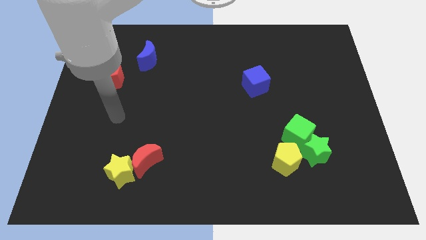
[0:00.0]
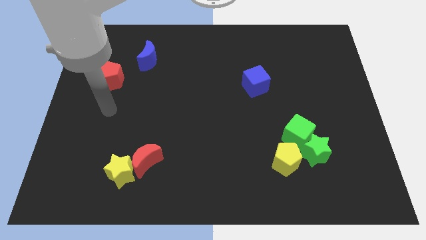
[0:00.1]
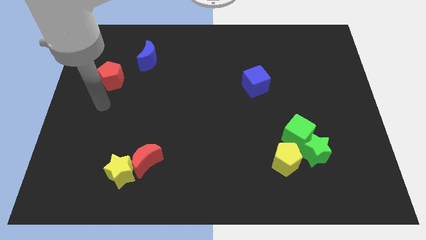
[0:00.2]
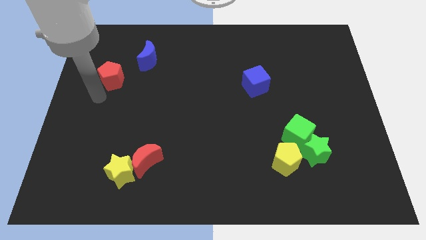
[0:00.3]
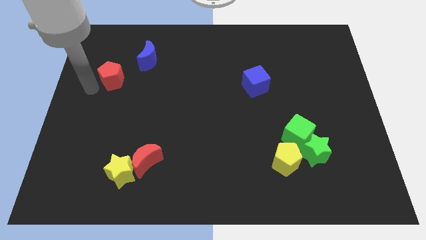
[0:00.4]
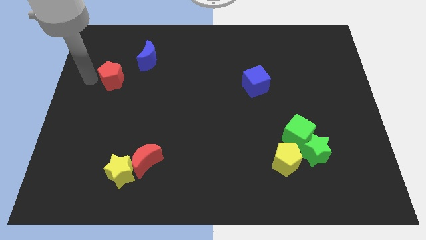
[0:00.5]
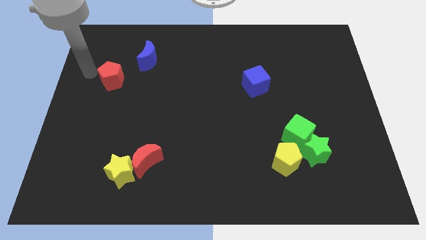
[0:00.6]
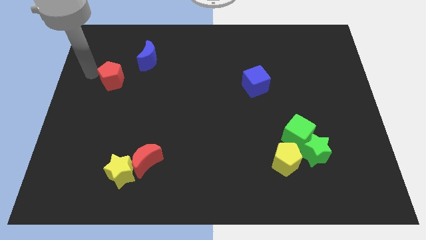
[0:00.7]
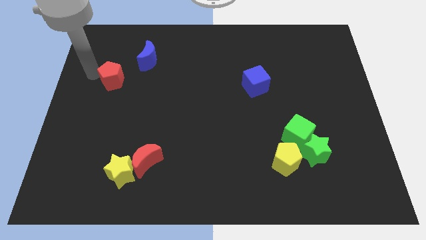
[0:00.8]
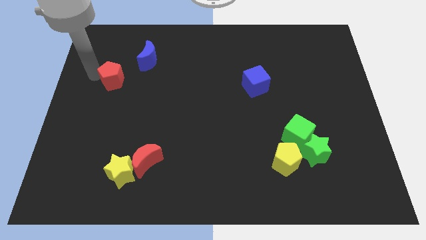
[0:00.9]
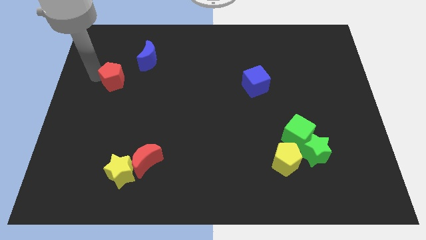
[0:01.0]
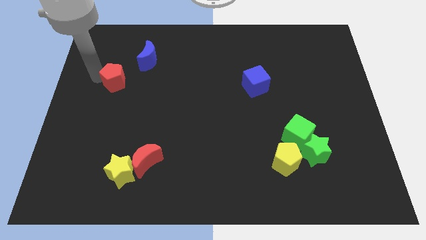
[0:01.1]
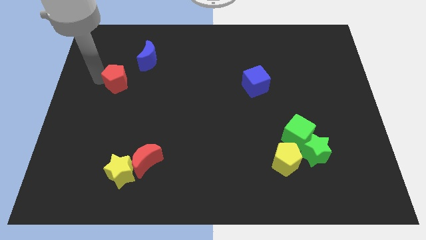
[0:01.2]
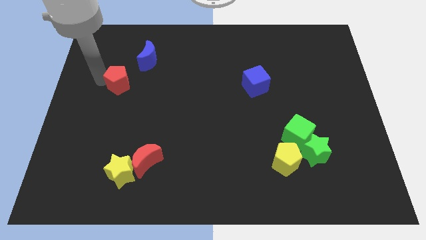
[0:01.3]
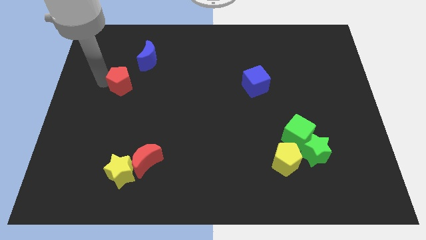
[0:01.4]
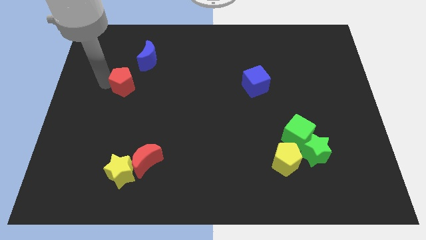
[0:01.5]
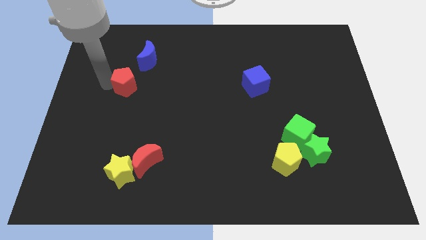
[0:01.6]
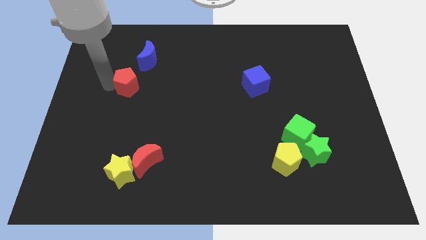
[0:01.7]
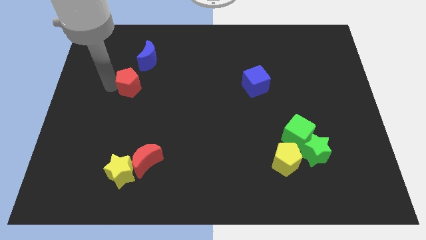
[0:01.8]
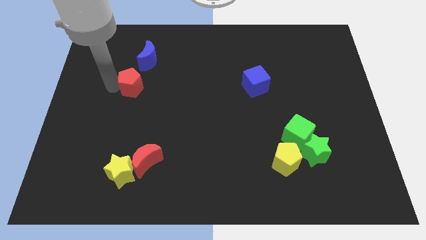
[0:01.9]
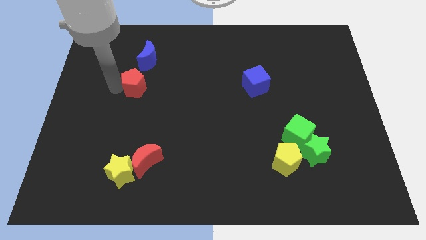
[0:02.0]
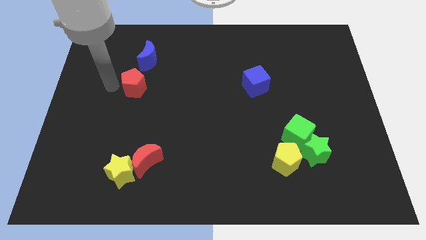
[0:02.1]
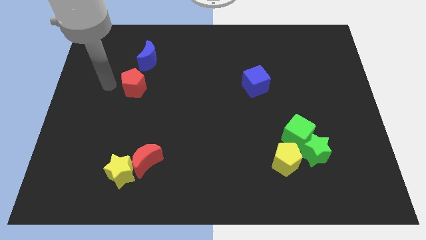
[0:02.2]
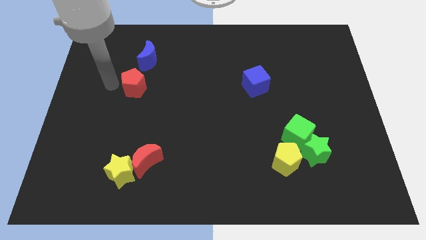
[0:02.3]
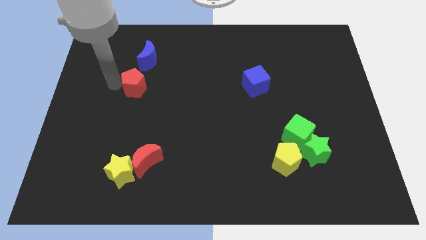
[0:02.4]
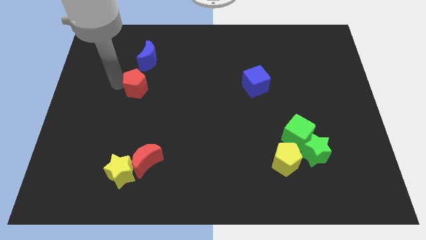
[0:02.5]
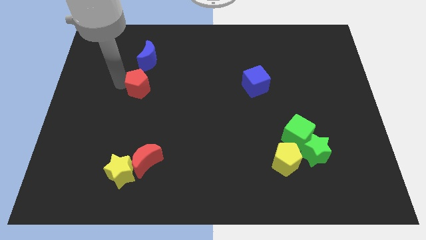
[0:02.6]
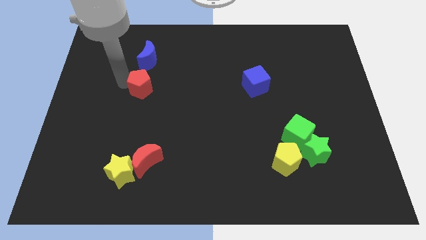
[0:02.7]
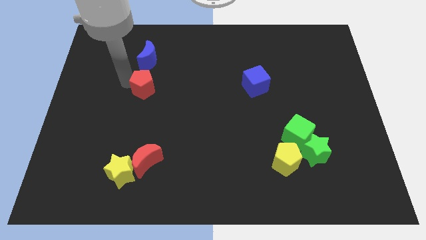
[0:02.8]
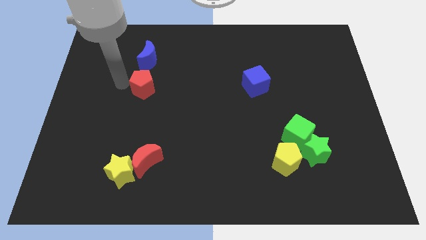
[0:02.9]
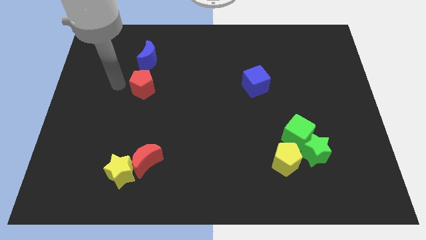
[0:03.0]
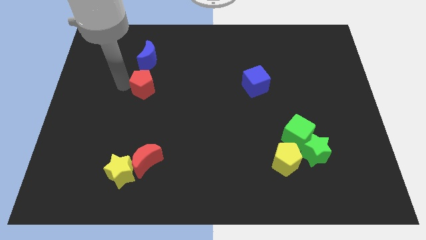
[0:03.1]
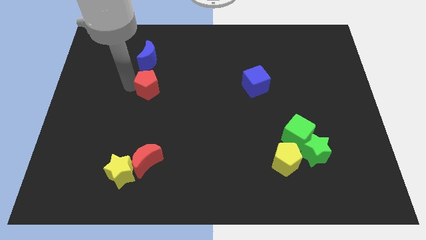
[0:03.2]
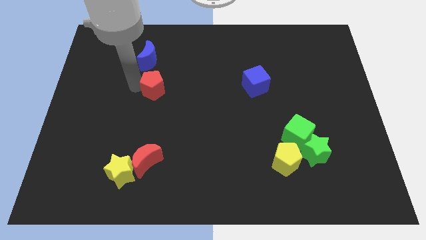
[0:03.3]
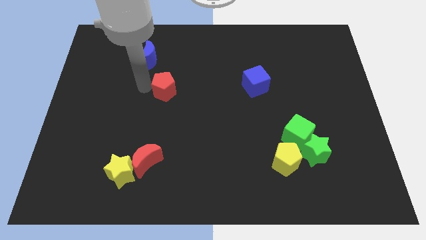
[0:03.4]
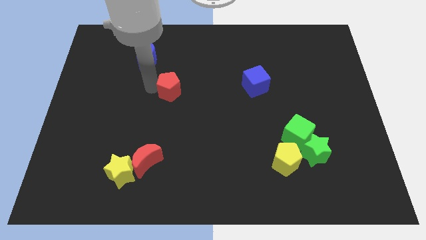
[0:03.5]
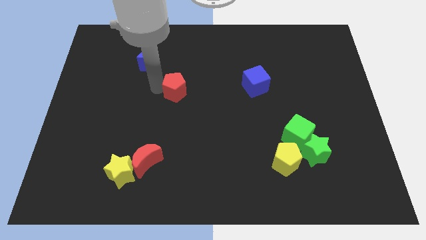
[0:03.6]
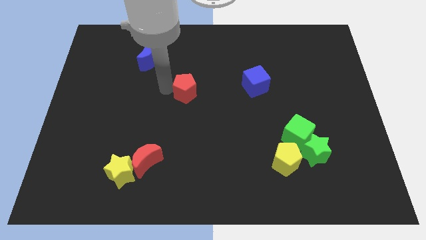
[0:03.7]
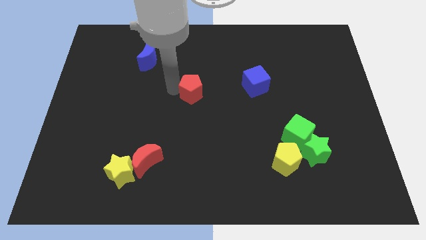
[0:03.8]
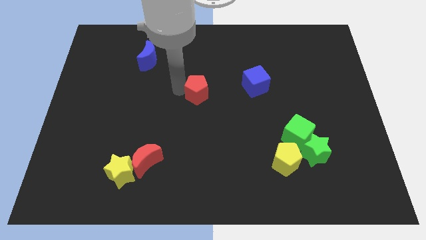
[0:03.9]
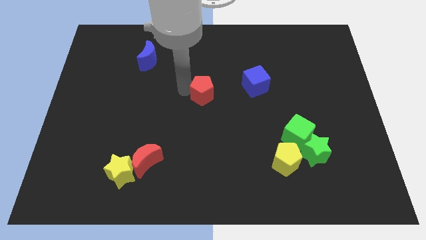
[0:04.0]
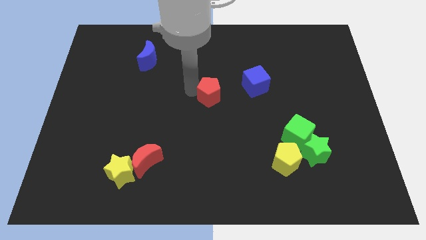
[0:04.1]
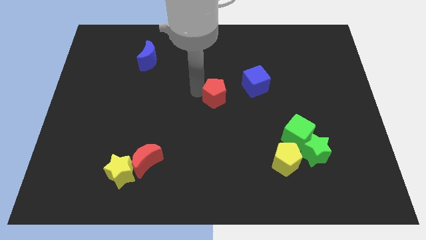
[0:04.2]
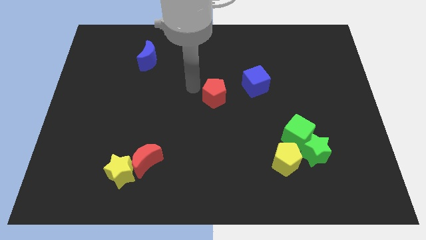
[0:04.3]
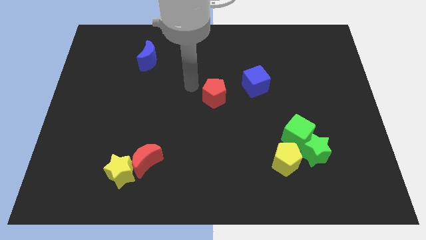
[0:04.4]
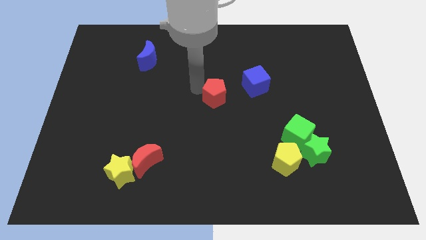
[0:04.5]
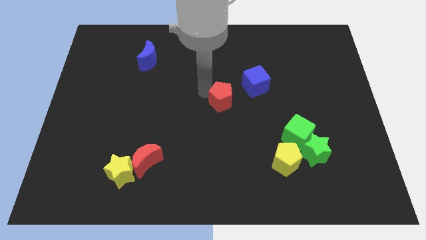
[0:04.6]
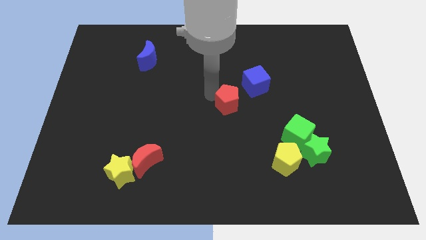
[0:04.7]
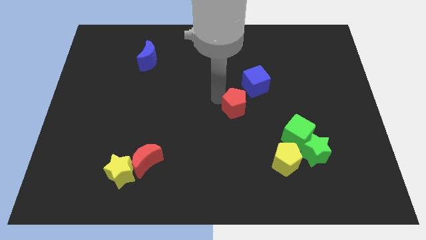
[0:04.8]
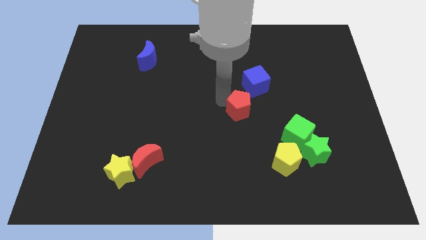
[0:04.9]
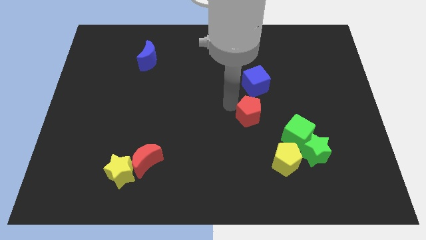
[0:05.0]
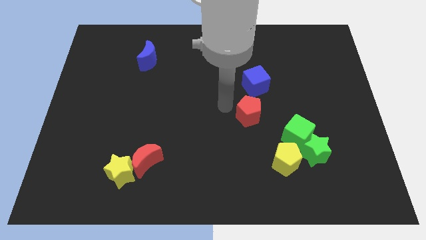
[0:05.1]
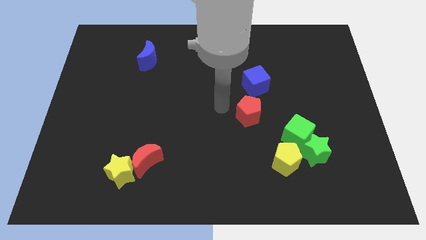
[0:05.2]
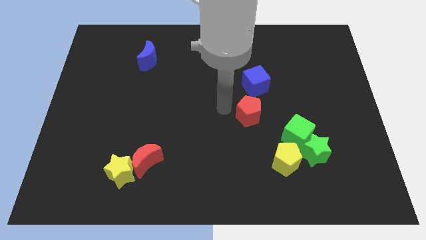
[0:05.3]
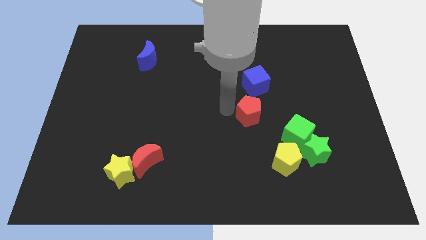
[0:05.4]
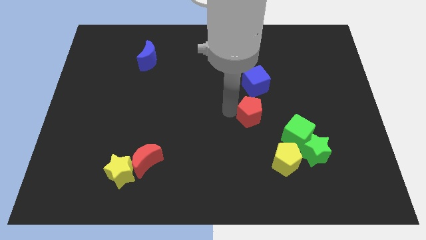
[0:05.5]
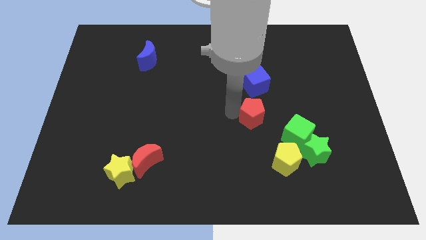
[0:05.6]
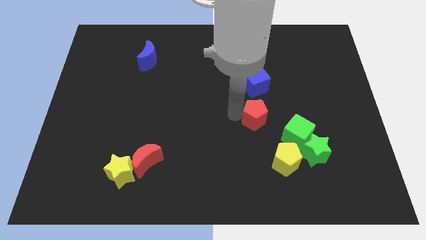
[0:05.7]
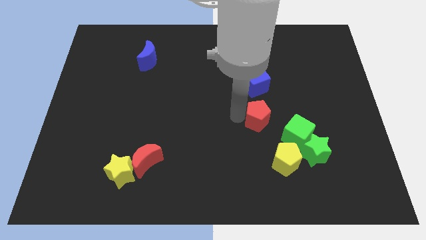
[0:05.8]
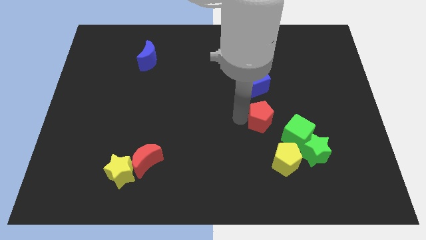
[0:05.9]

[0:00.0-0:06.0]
push the red pentagon above the yellow pentagon
